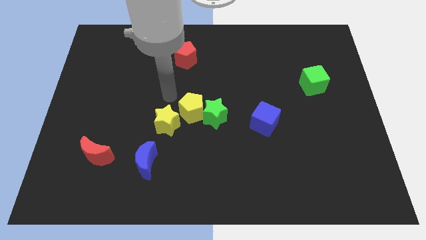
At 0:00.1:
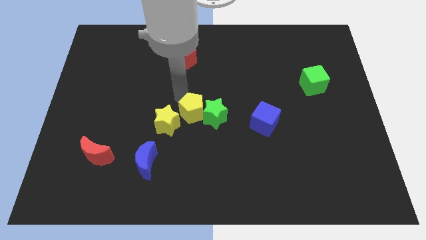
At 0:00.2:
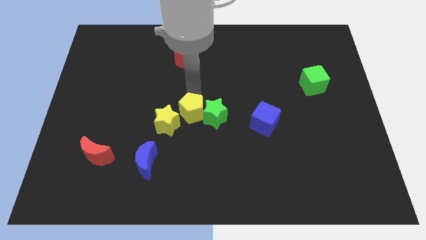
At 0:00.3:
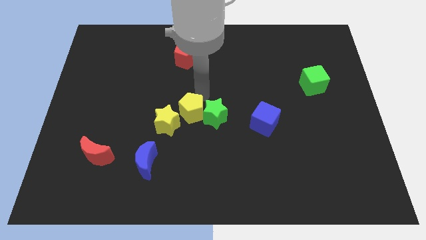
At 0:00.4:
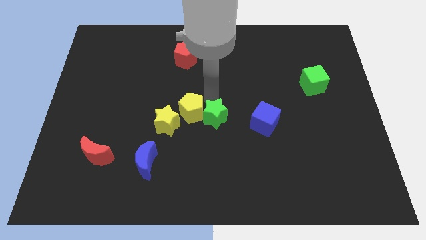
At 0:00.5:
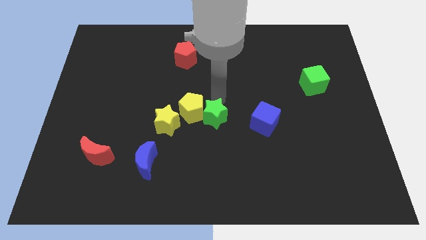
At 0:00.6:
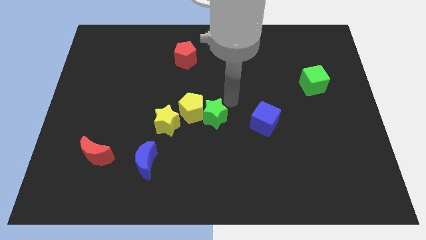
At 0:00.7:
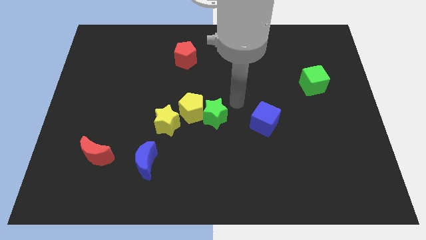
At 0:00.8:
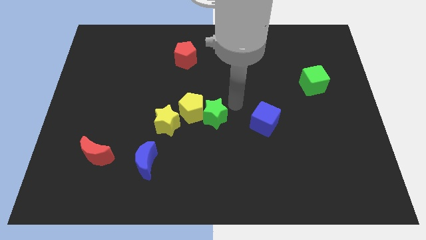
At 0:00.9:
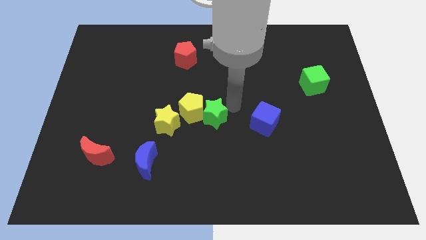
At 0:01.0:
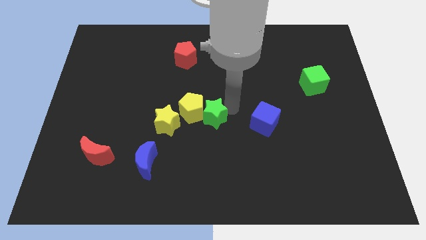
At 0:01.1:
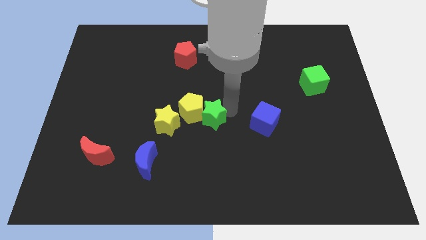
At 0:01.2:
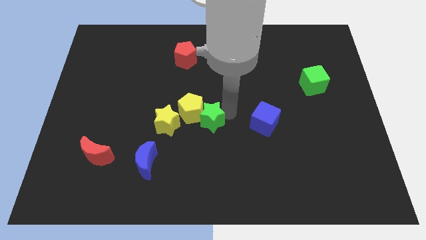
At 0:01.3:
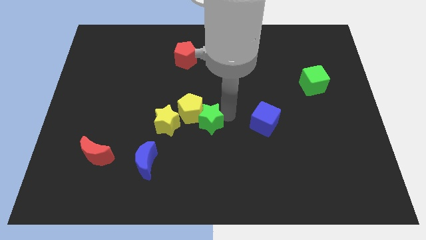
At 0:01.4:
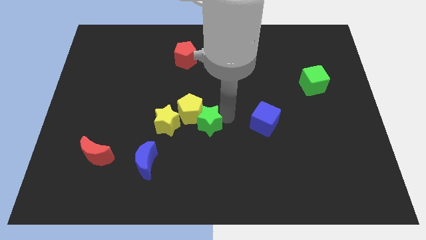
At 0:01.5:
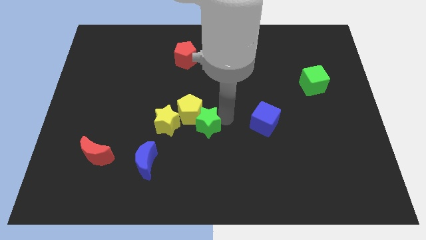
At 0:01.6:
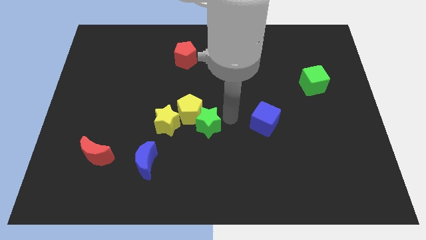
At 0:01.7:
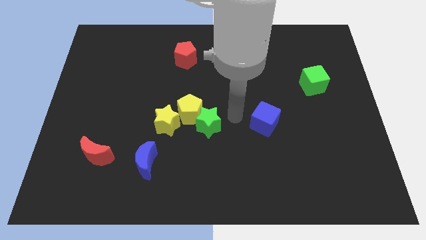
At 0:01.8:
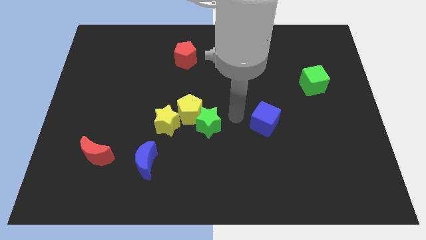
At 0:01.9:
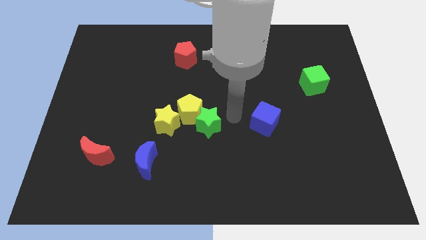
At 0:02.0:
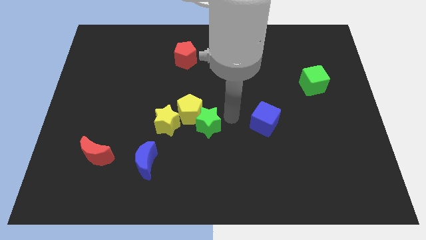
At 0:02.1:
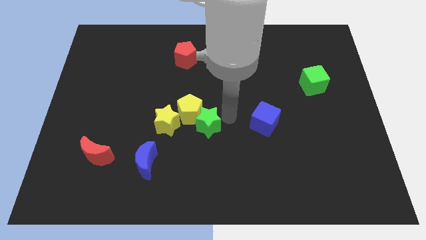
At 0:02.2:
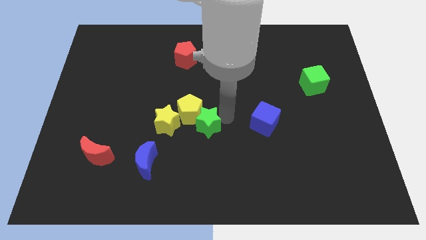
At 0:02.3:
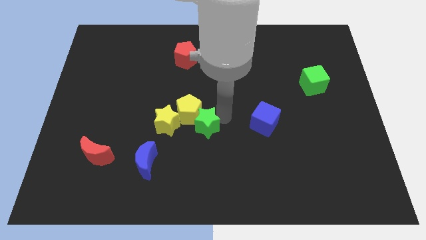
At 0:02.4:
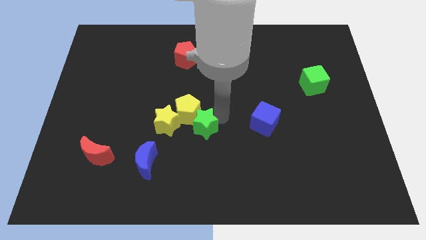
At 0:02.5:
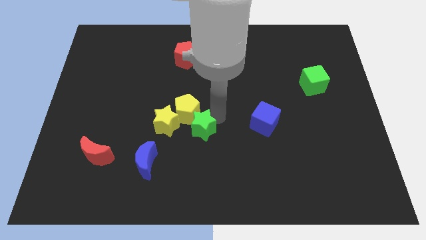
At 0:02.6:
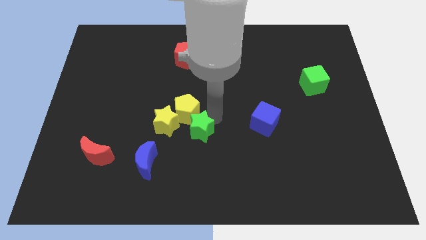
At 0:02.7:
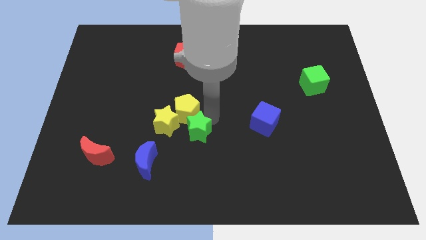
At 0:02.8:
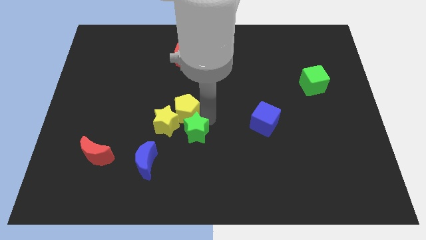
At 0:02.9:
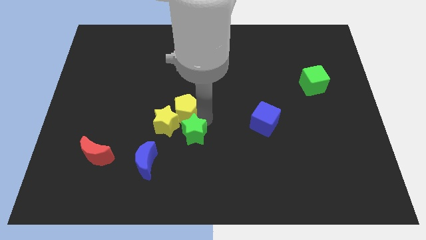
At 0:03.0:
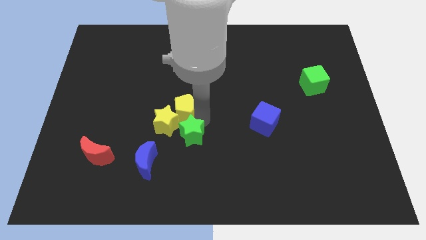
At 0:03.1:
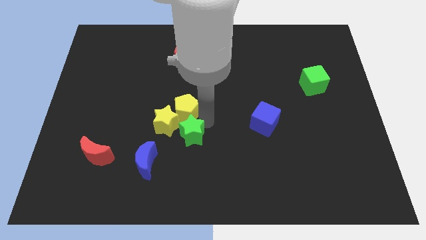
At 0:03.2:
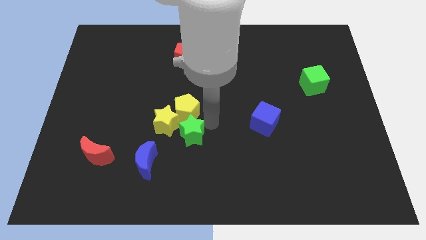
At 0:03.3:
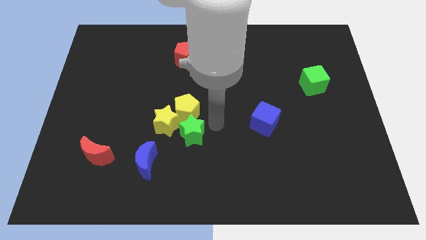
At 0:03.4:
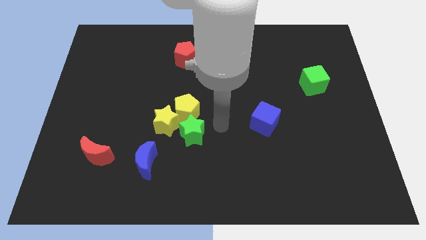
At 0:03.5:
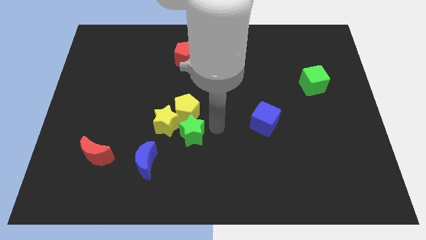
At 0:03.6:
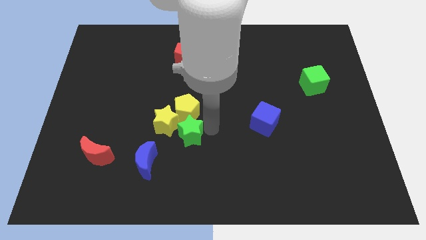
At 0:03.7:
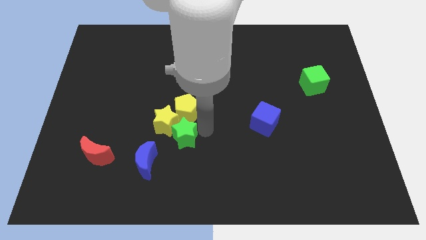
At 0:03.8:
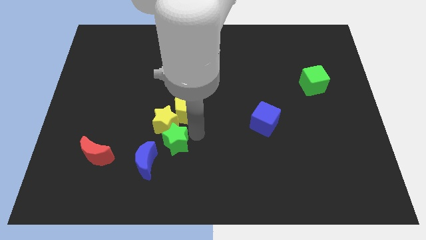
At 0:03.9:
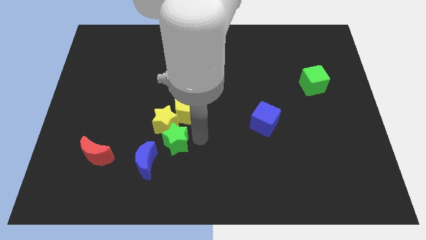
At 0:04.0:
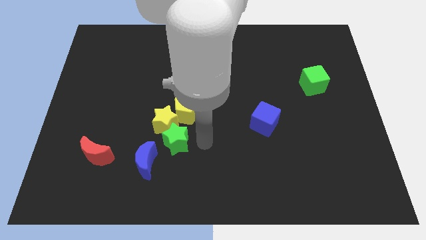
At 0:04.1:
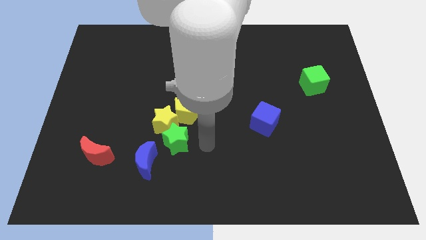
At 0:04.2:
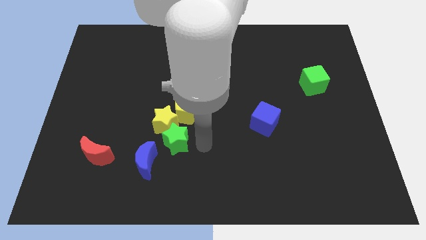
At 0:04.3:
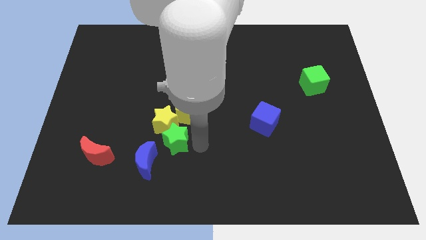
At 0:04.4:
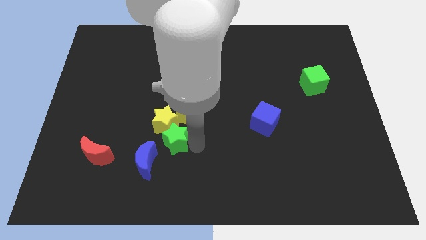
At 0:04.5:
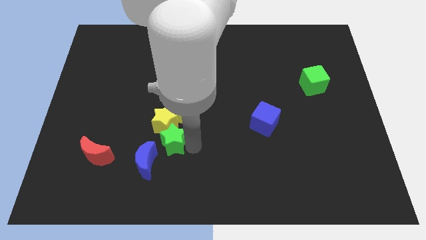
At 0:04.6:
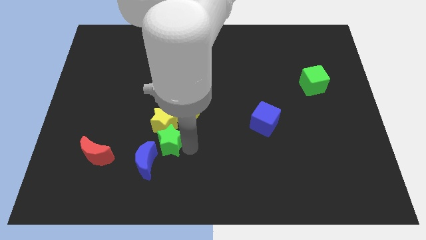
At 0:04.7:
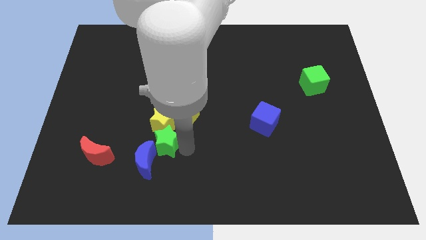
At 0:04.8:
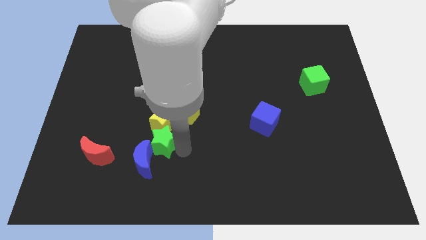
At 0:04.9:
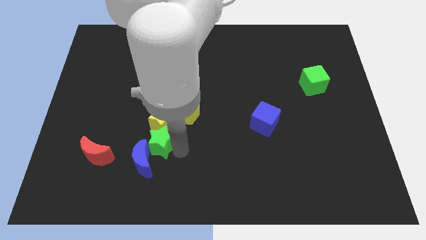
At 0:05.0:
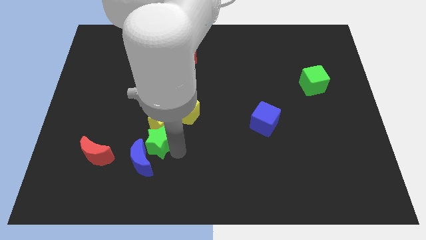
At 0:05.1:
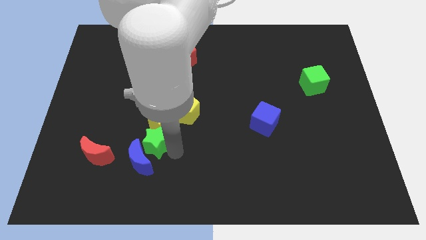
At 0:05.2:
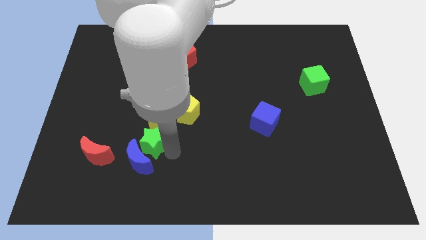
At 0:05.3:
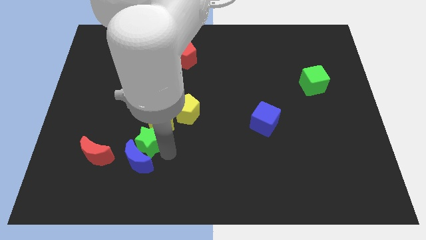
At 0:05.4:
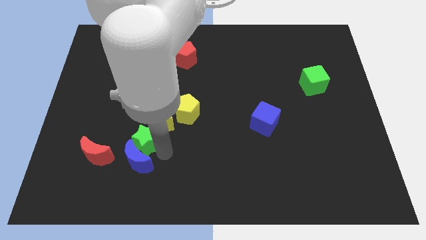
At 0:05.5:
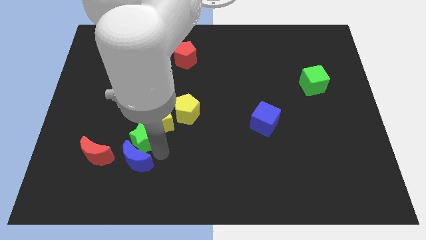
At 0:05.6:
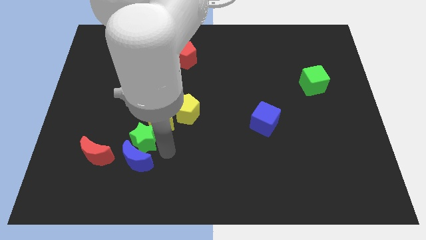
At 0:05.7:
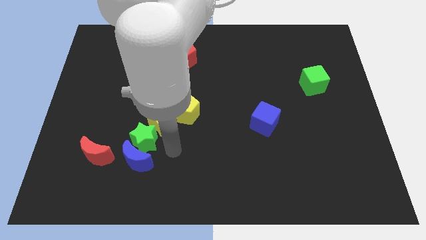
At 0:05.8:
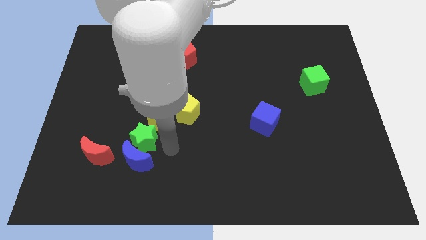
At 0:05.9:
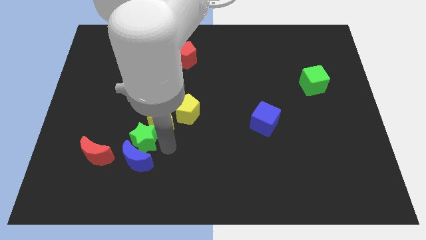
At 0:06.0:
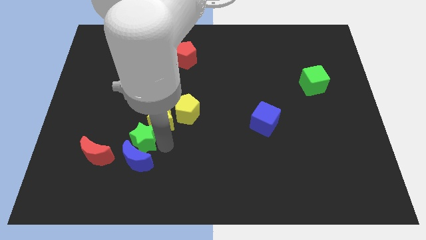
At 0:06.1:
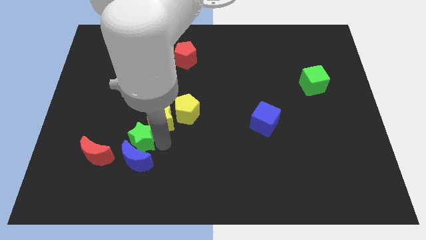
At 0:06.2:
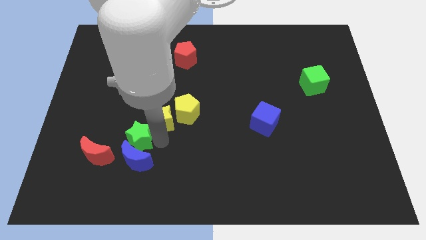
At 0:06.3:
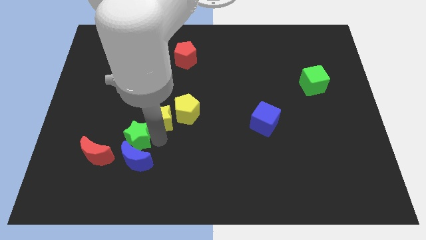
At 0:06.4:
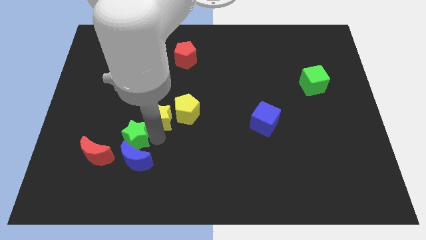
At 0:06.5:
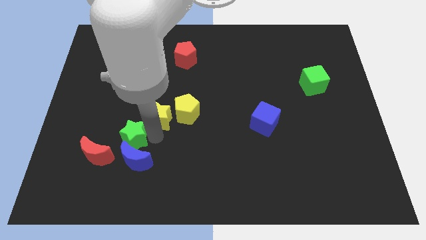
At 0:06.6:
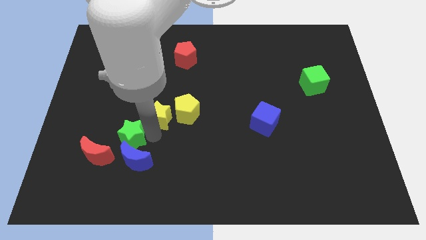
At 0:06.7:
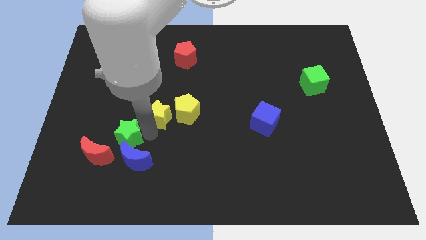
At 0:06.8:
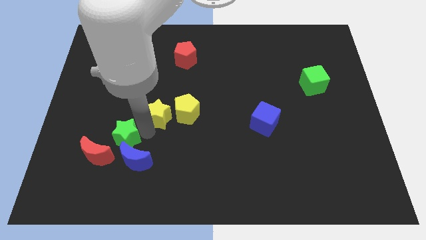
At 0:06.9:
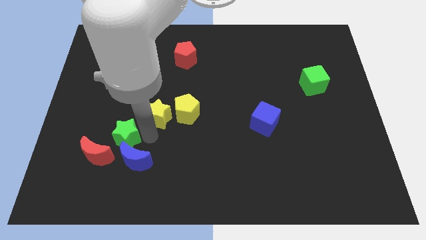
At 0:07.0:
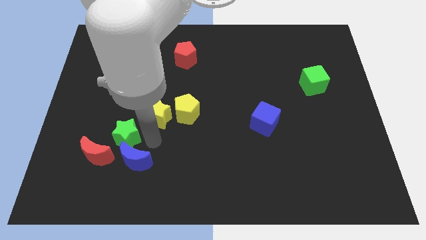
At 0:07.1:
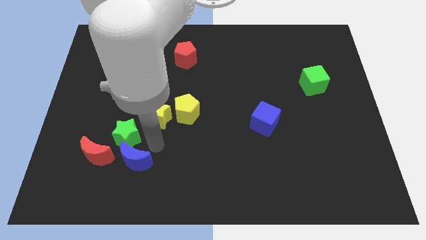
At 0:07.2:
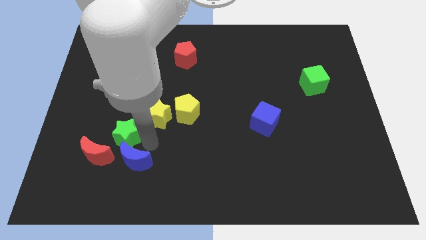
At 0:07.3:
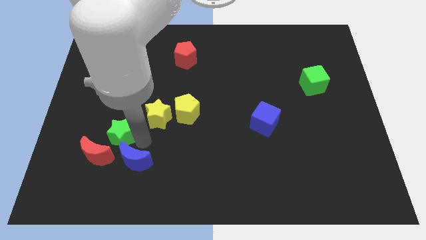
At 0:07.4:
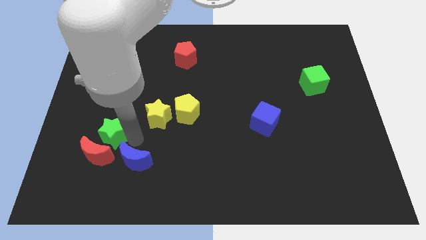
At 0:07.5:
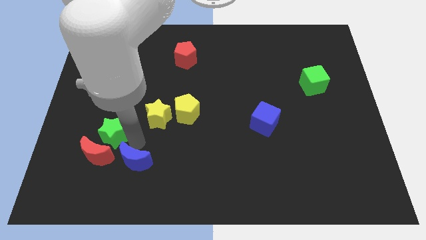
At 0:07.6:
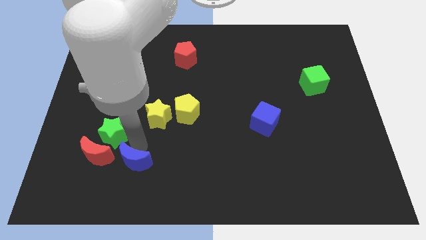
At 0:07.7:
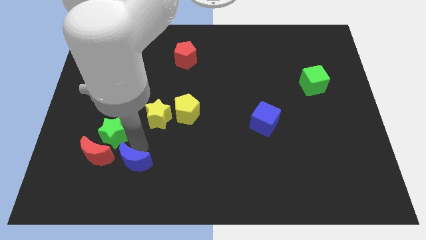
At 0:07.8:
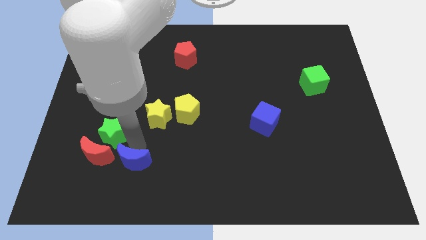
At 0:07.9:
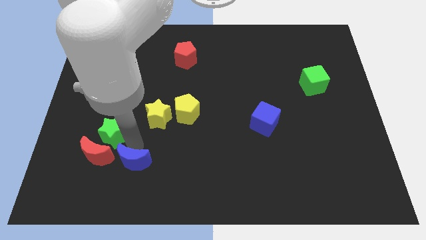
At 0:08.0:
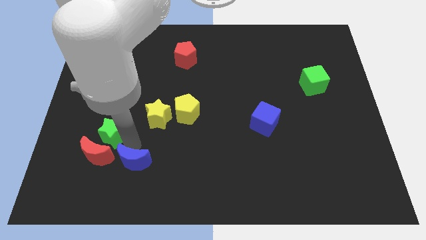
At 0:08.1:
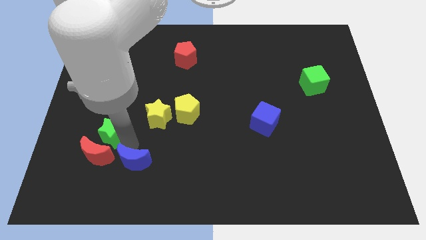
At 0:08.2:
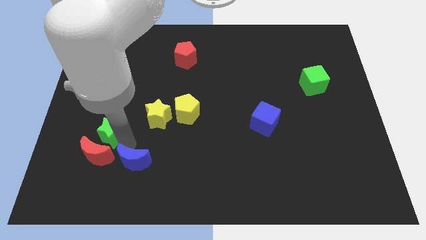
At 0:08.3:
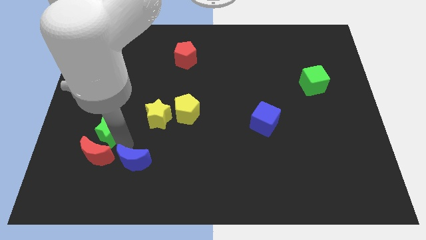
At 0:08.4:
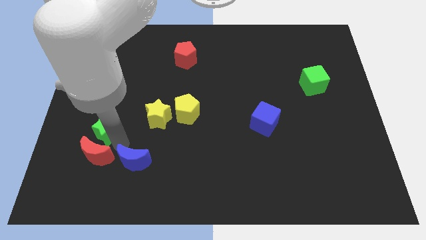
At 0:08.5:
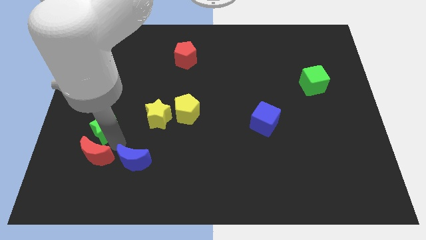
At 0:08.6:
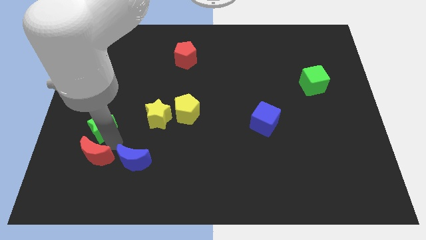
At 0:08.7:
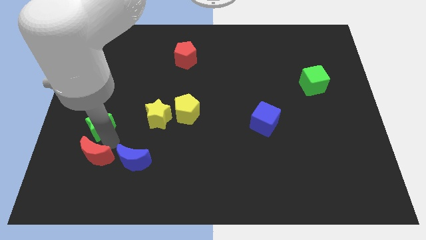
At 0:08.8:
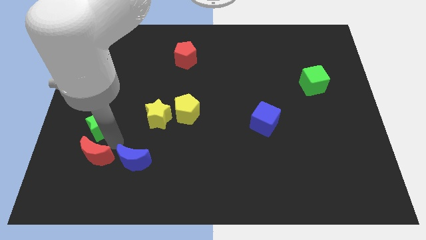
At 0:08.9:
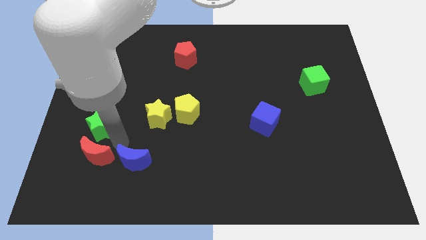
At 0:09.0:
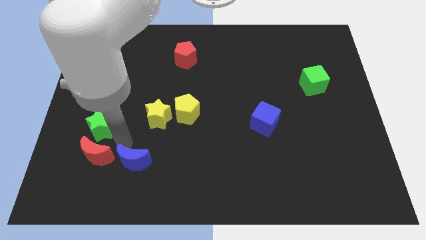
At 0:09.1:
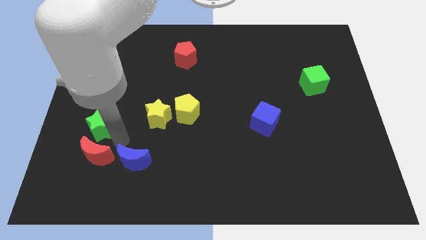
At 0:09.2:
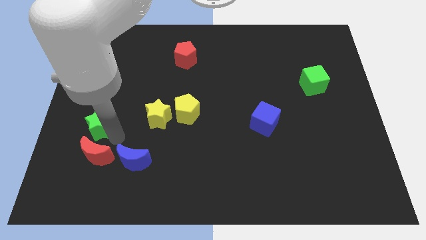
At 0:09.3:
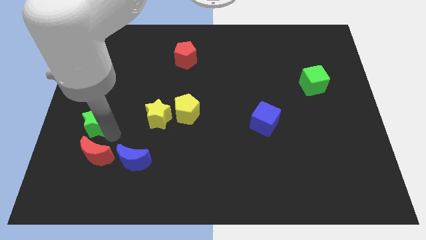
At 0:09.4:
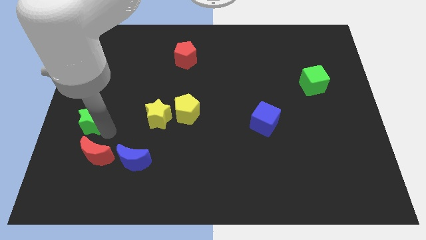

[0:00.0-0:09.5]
put the green star to the center left
